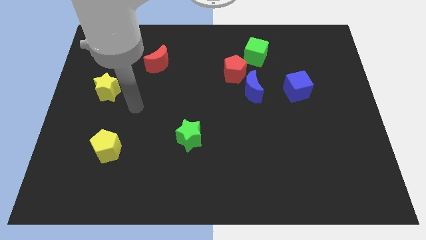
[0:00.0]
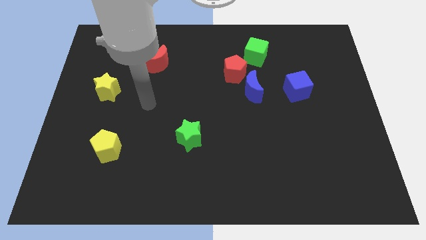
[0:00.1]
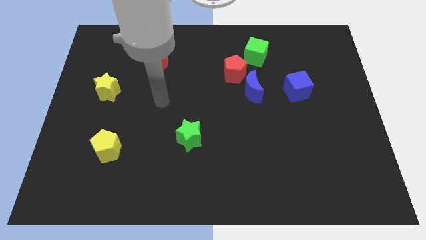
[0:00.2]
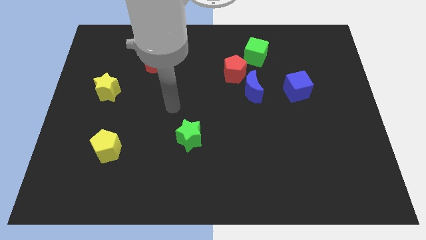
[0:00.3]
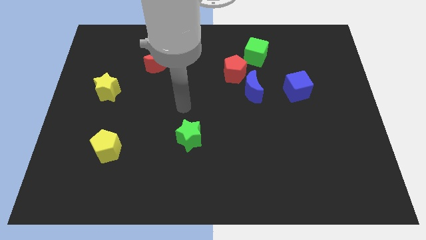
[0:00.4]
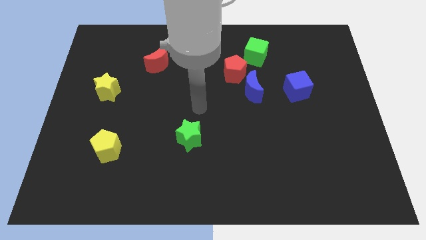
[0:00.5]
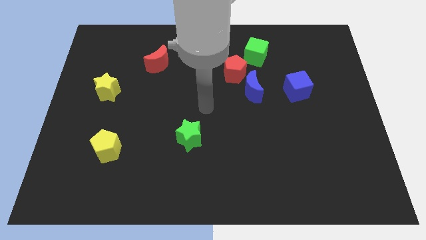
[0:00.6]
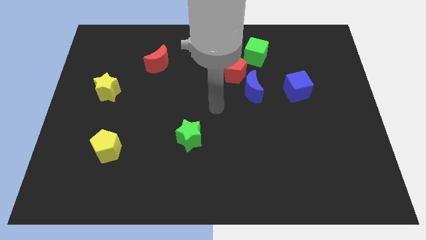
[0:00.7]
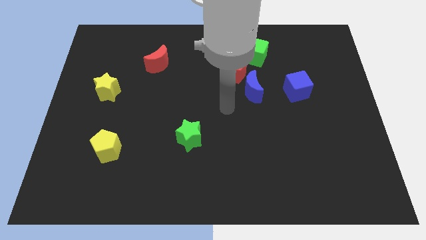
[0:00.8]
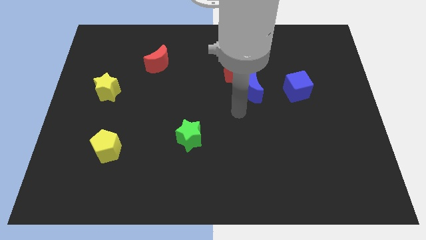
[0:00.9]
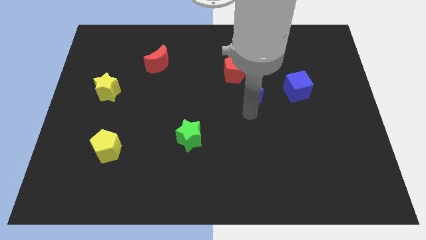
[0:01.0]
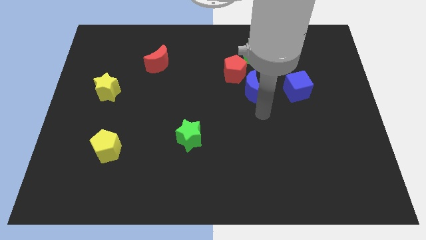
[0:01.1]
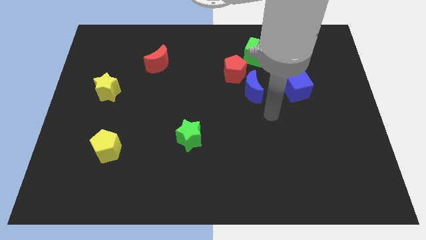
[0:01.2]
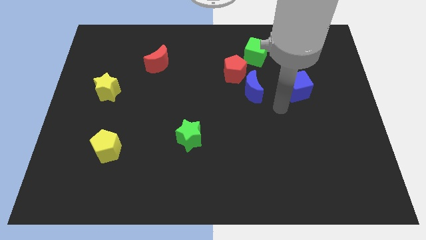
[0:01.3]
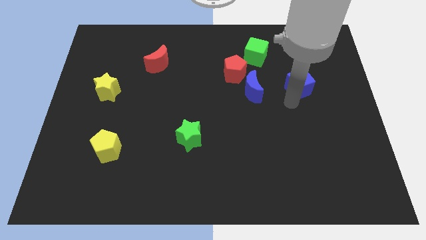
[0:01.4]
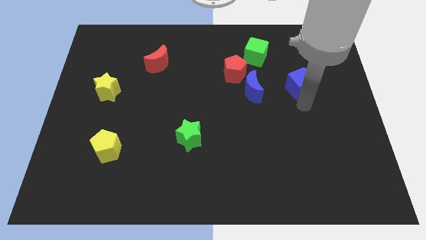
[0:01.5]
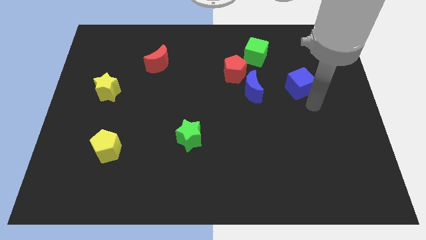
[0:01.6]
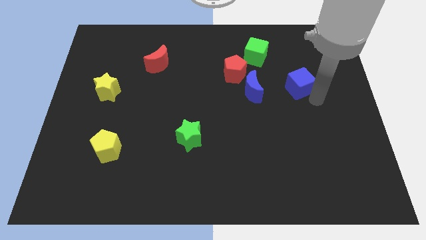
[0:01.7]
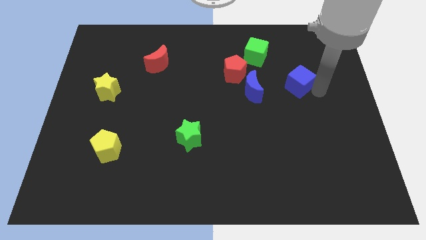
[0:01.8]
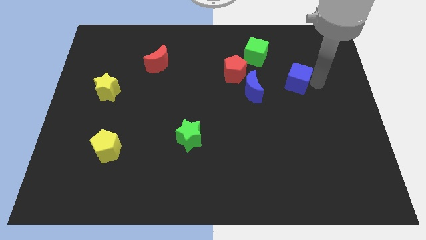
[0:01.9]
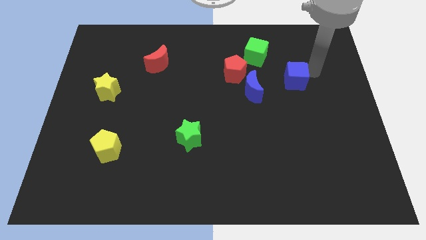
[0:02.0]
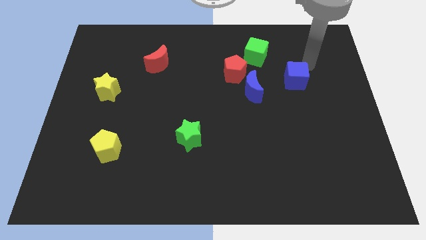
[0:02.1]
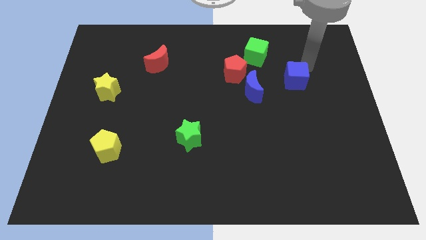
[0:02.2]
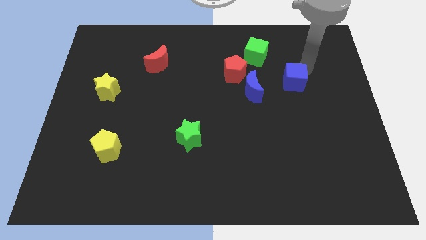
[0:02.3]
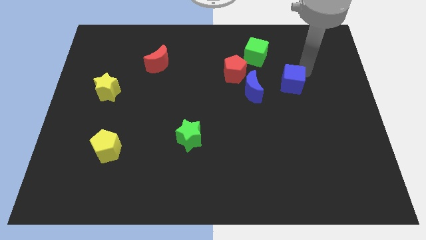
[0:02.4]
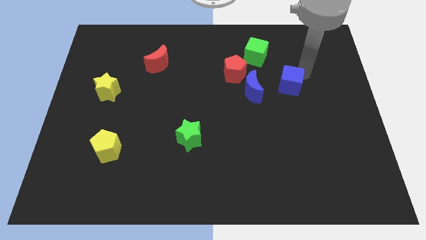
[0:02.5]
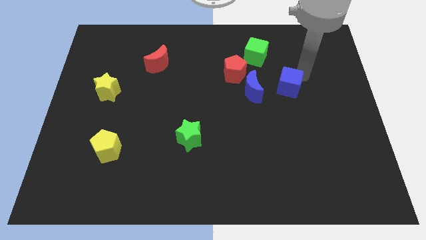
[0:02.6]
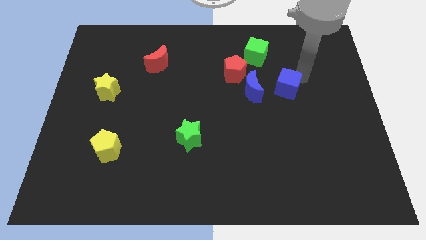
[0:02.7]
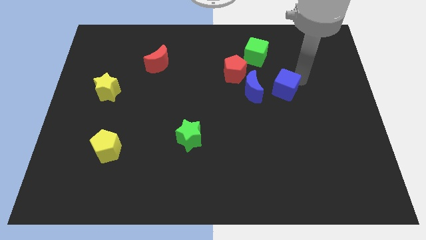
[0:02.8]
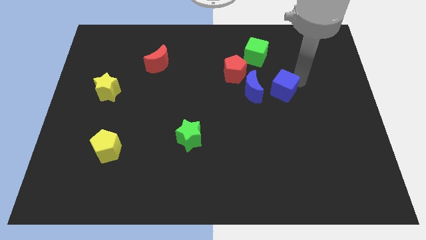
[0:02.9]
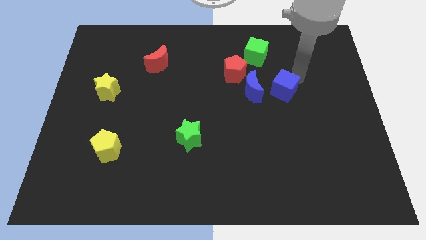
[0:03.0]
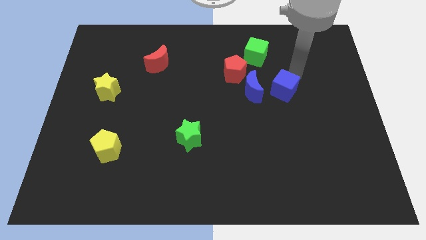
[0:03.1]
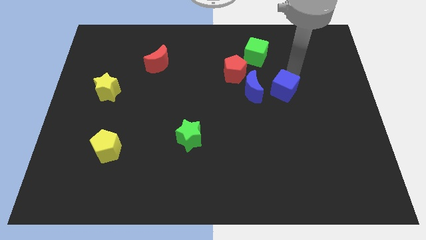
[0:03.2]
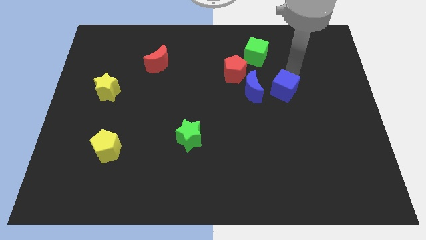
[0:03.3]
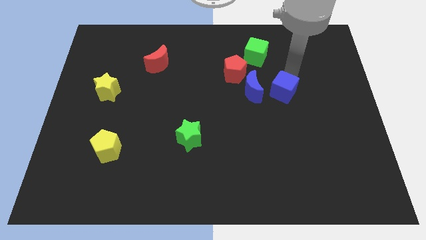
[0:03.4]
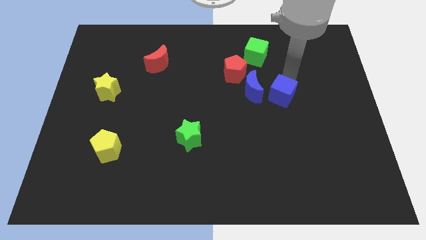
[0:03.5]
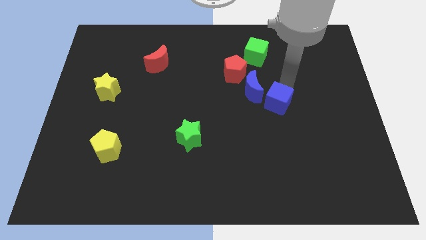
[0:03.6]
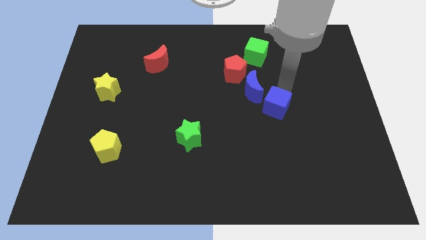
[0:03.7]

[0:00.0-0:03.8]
push the blue cube downwards and left diagonally a little

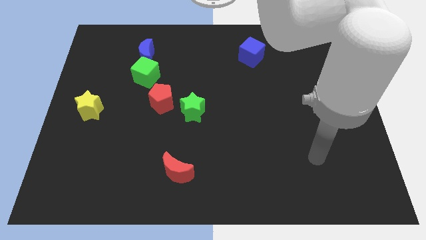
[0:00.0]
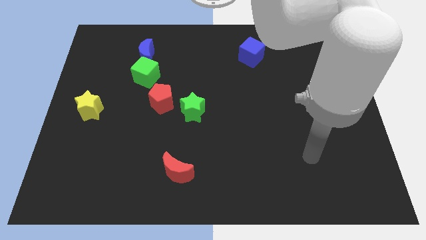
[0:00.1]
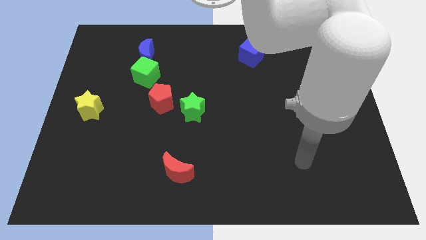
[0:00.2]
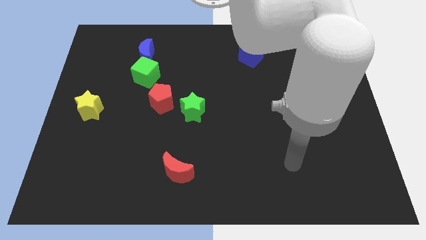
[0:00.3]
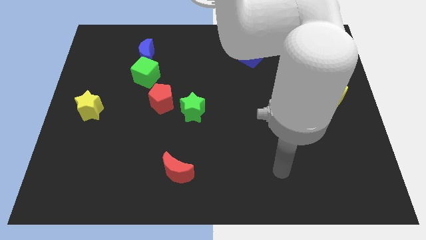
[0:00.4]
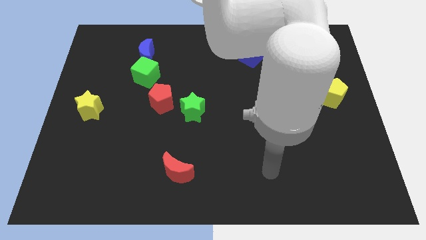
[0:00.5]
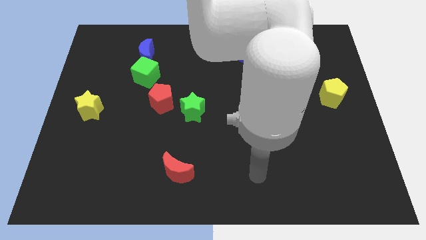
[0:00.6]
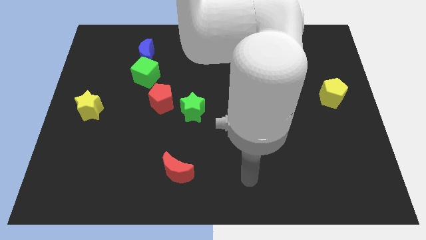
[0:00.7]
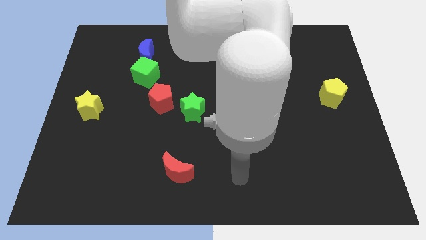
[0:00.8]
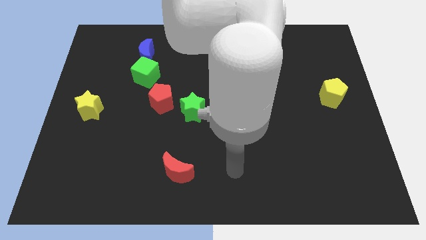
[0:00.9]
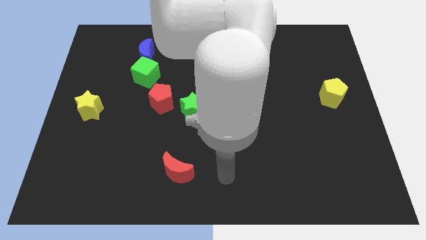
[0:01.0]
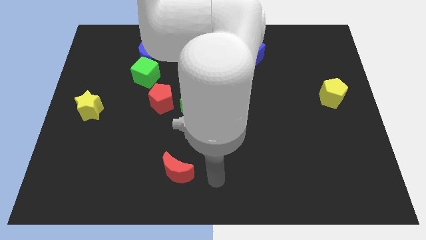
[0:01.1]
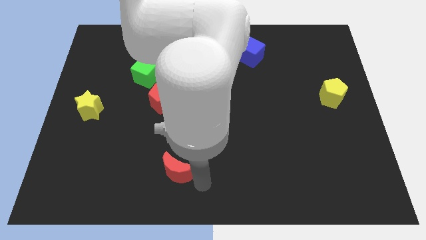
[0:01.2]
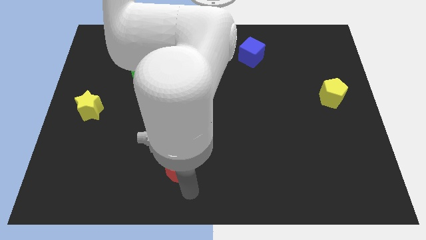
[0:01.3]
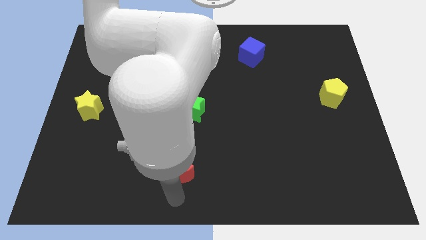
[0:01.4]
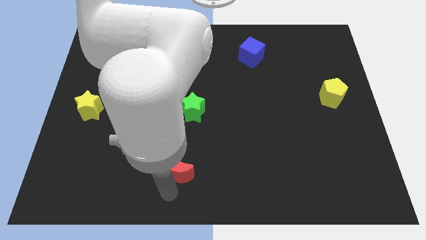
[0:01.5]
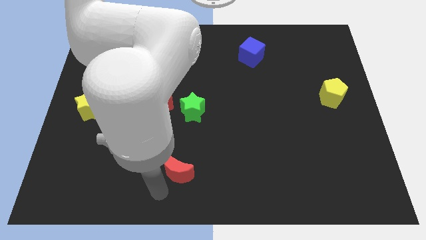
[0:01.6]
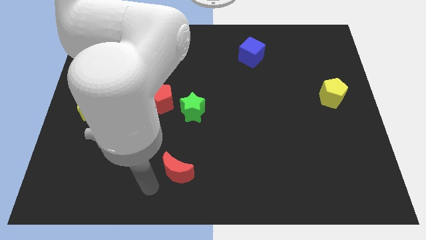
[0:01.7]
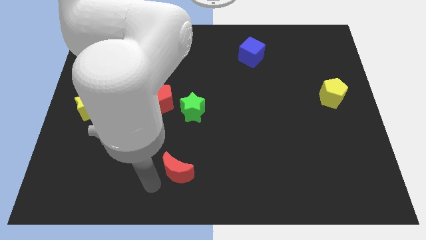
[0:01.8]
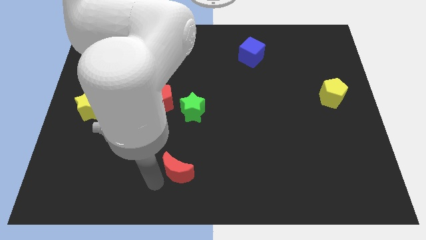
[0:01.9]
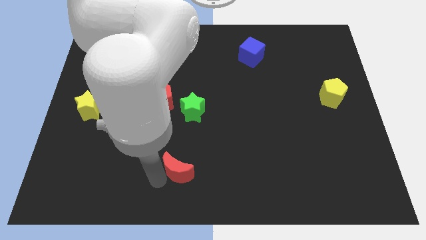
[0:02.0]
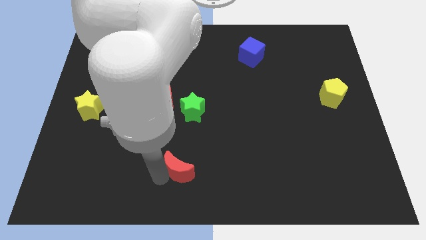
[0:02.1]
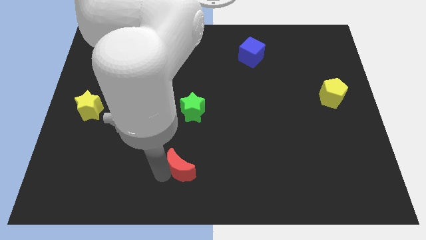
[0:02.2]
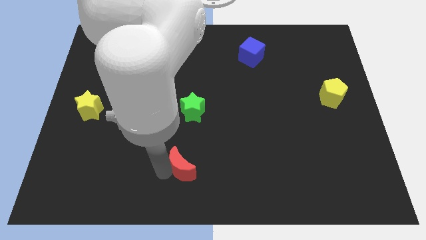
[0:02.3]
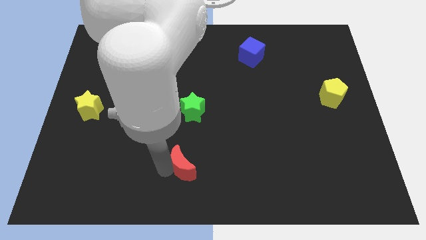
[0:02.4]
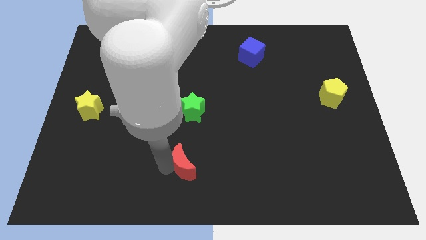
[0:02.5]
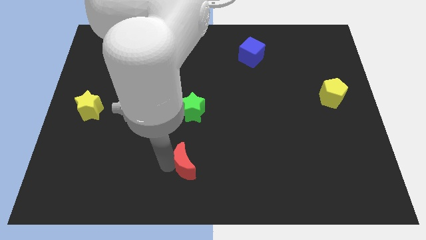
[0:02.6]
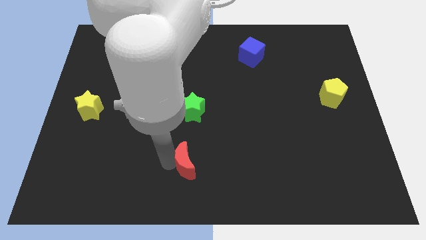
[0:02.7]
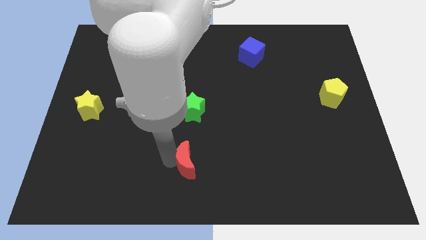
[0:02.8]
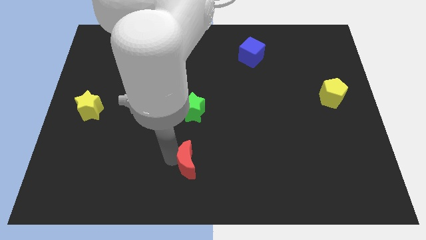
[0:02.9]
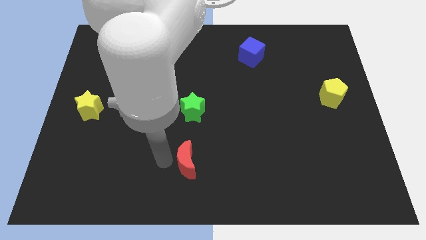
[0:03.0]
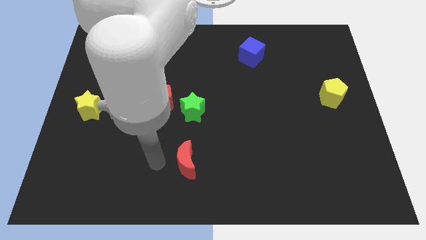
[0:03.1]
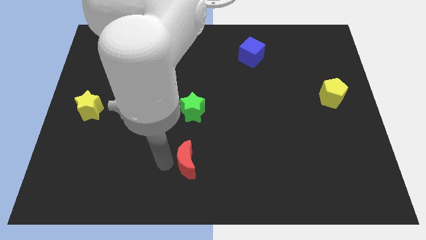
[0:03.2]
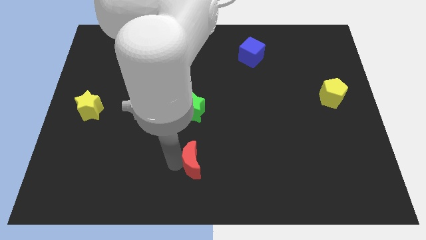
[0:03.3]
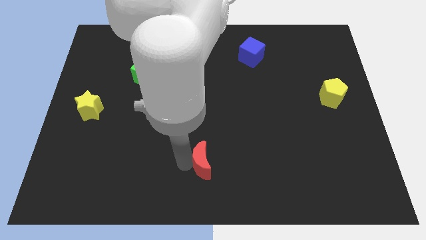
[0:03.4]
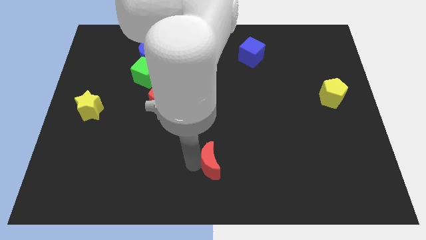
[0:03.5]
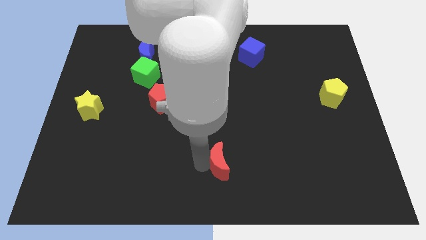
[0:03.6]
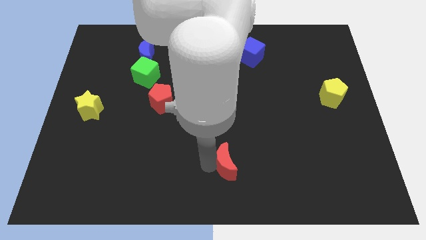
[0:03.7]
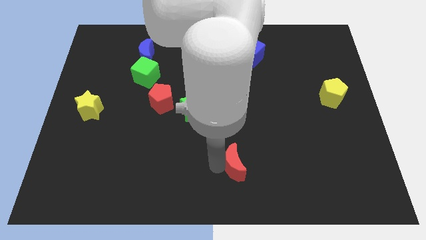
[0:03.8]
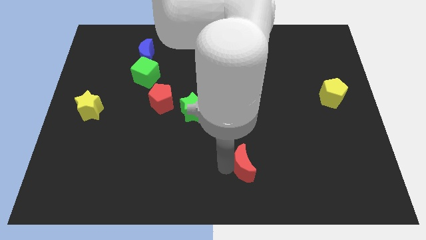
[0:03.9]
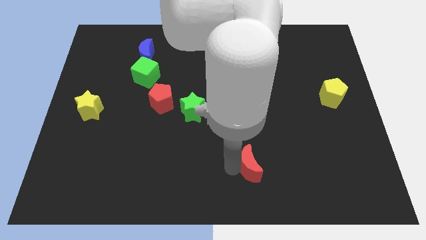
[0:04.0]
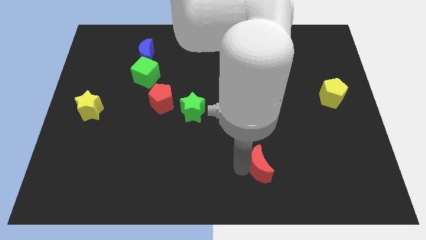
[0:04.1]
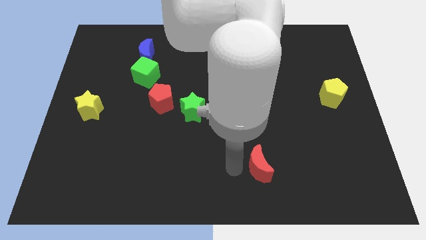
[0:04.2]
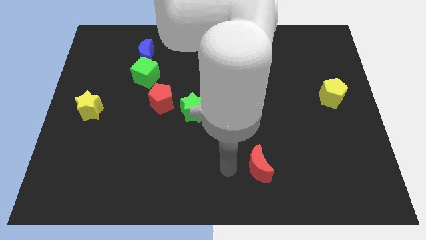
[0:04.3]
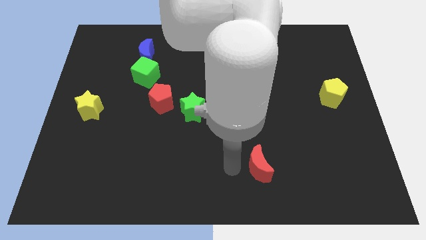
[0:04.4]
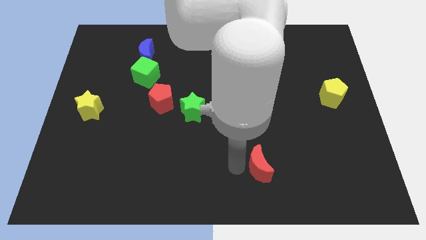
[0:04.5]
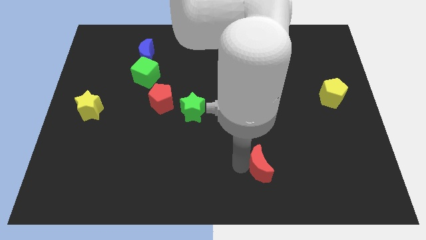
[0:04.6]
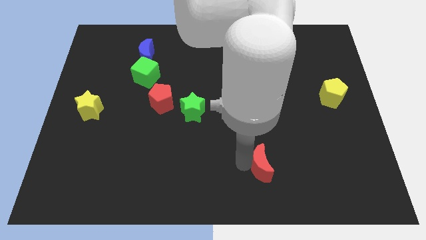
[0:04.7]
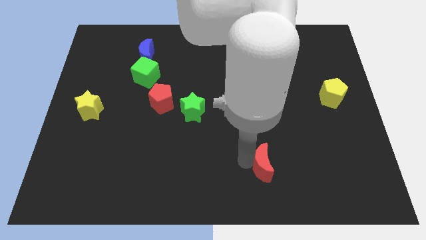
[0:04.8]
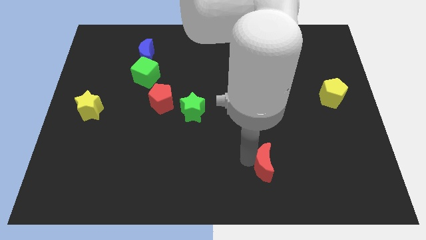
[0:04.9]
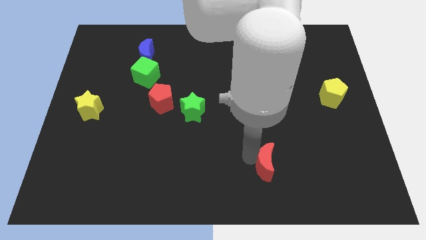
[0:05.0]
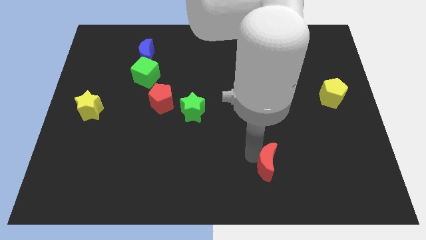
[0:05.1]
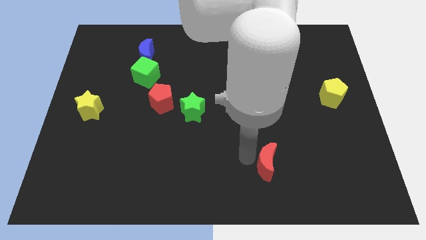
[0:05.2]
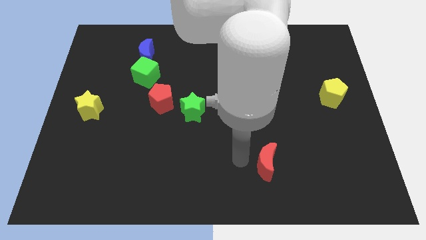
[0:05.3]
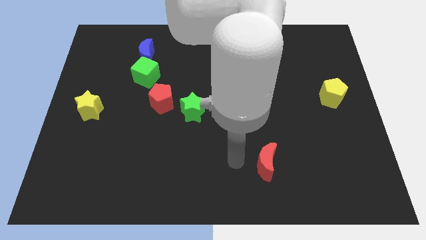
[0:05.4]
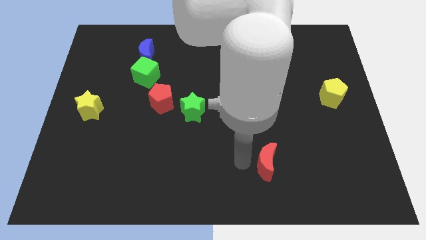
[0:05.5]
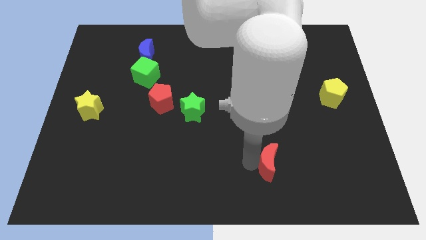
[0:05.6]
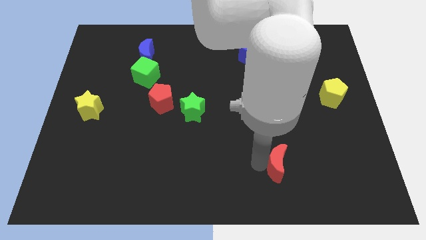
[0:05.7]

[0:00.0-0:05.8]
slide the red moon to the right
